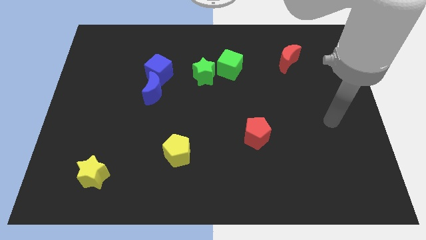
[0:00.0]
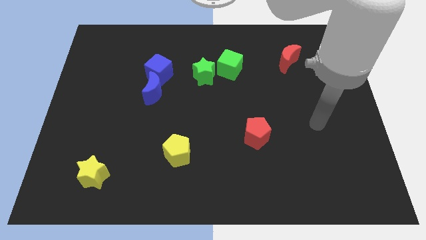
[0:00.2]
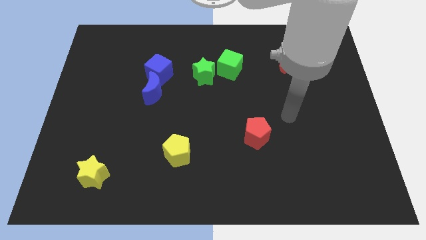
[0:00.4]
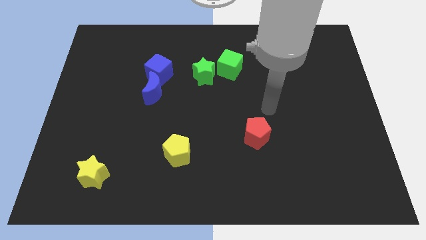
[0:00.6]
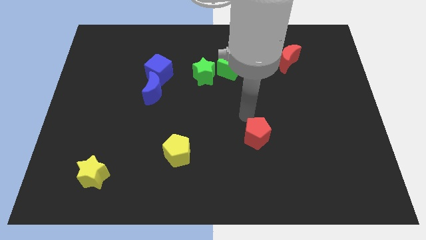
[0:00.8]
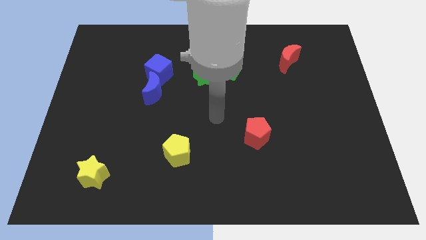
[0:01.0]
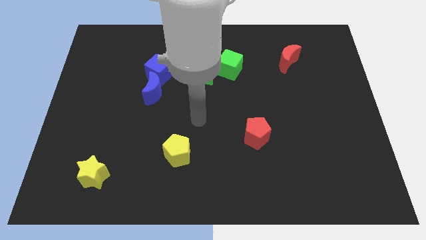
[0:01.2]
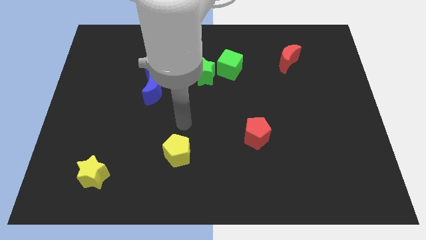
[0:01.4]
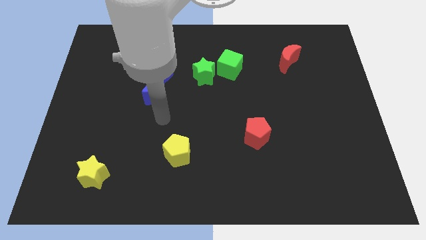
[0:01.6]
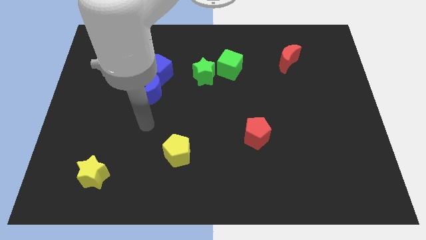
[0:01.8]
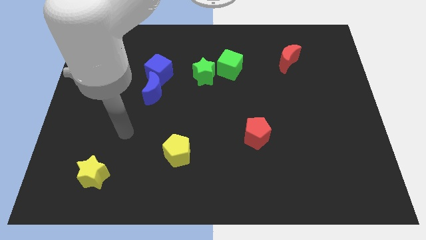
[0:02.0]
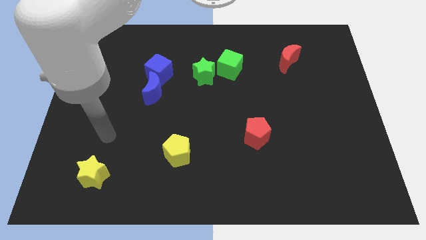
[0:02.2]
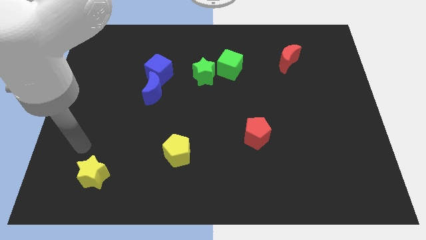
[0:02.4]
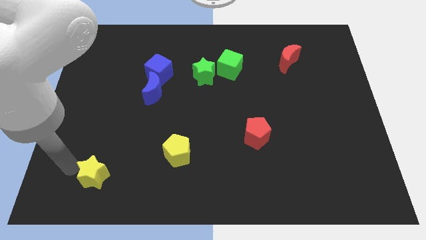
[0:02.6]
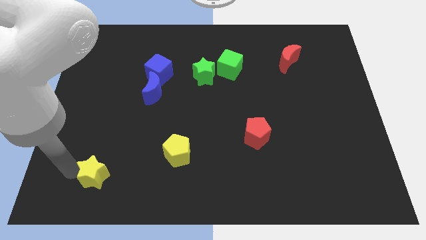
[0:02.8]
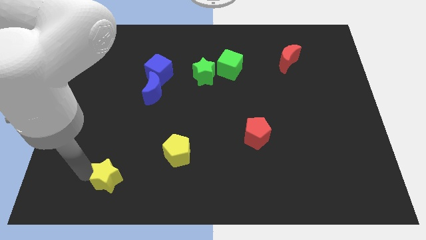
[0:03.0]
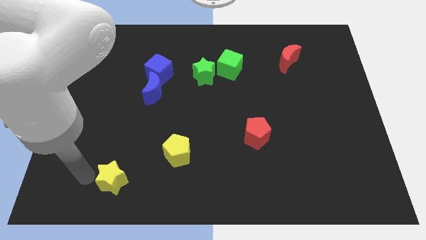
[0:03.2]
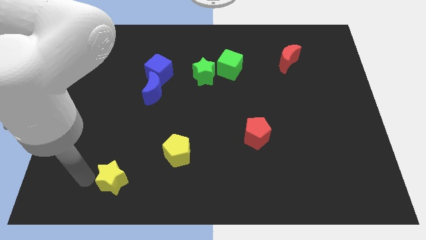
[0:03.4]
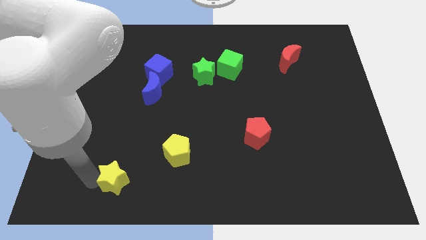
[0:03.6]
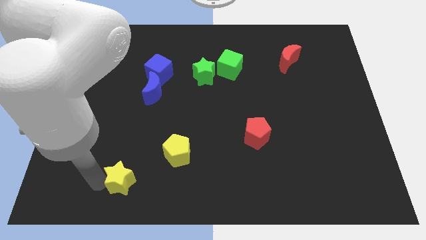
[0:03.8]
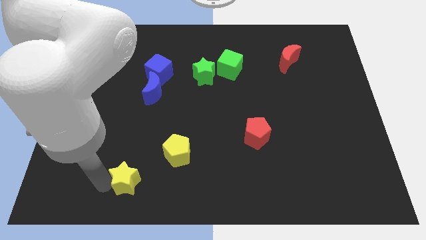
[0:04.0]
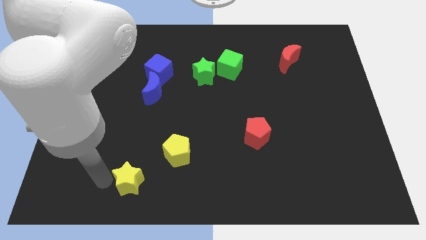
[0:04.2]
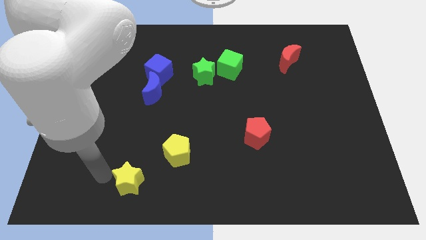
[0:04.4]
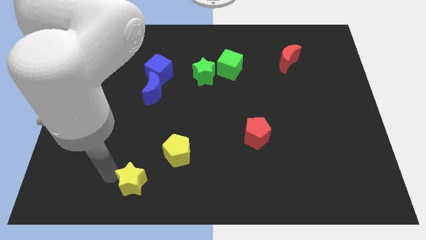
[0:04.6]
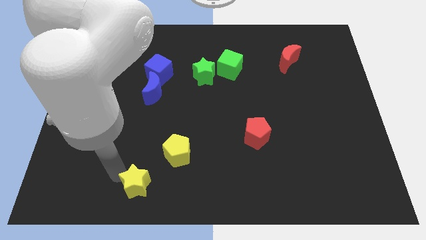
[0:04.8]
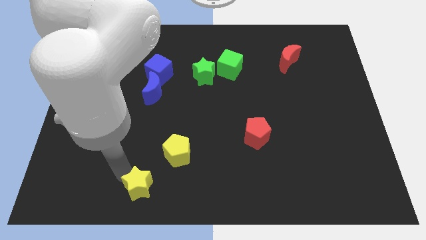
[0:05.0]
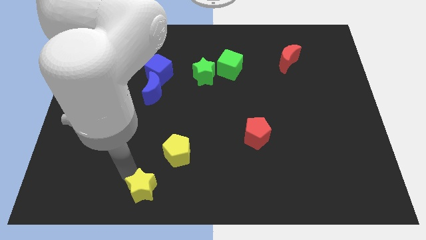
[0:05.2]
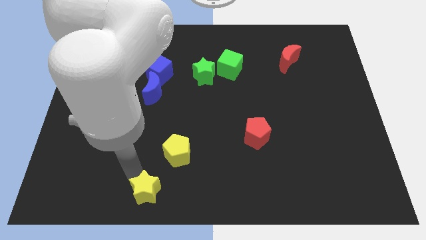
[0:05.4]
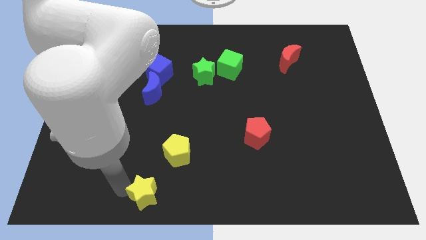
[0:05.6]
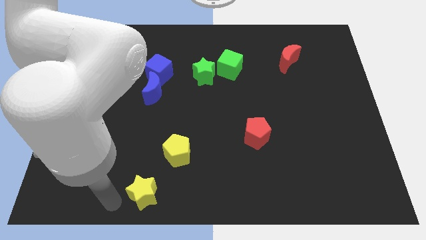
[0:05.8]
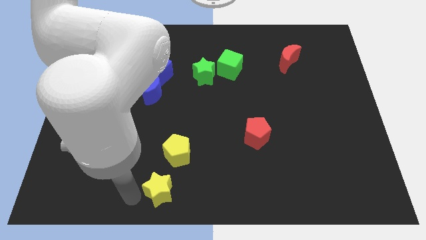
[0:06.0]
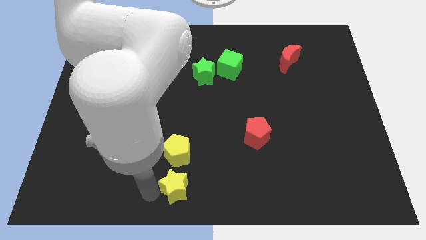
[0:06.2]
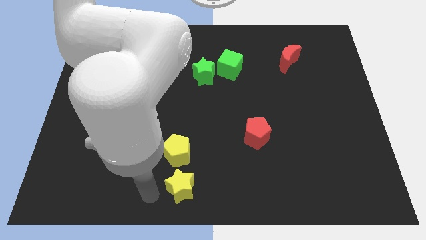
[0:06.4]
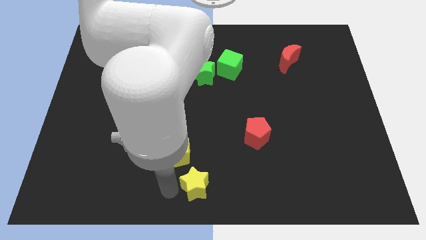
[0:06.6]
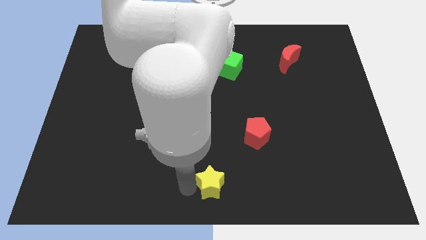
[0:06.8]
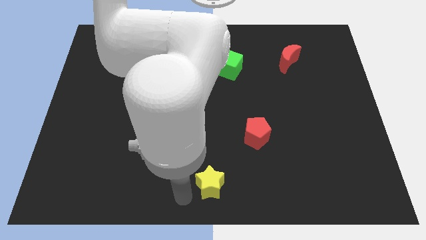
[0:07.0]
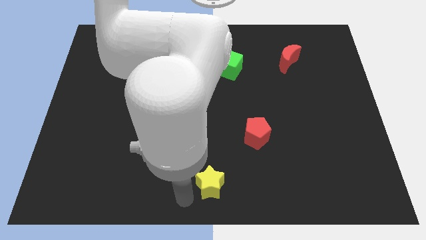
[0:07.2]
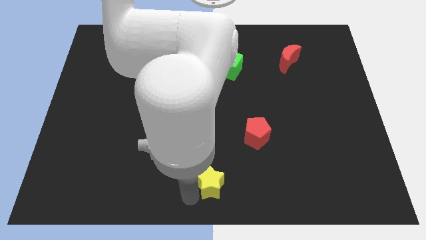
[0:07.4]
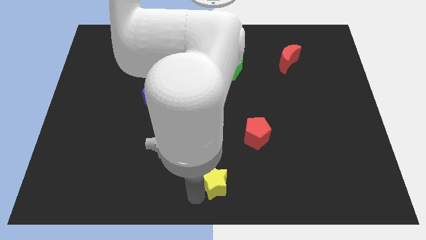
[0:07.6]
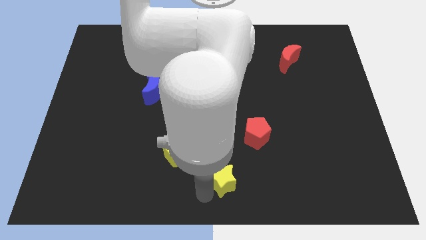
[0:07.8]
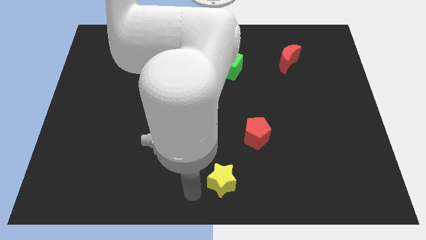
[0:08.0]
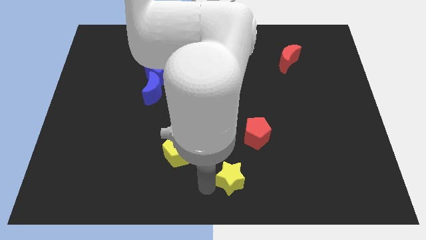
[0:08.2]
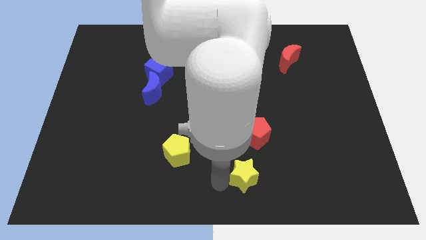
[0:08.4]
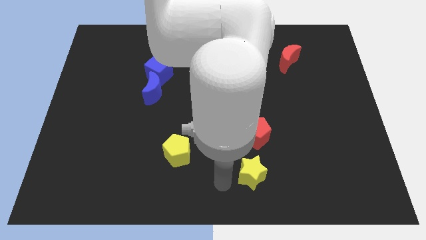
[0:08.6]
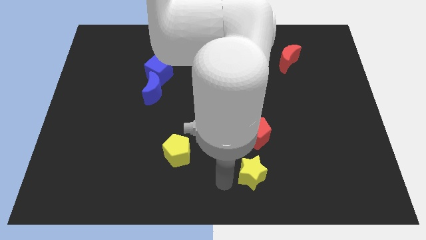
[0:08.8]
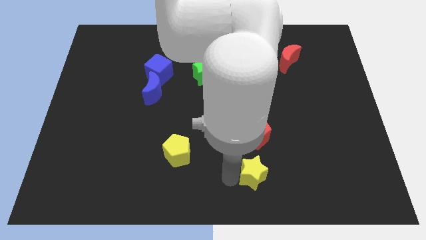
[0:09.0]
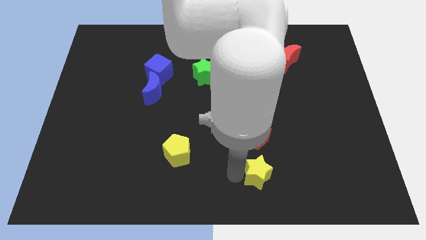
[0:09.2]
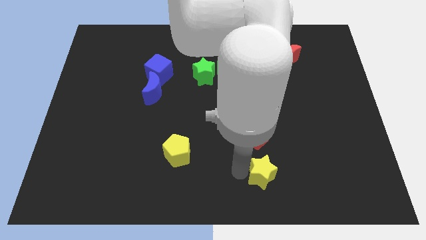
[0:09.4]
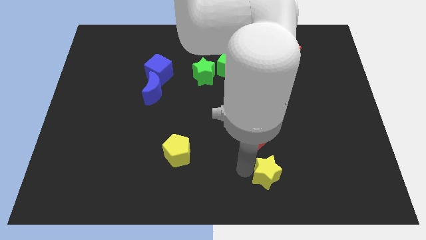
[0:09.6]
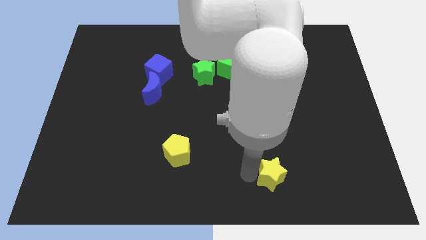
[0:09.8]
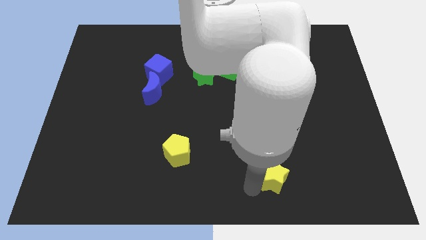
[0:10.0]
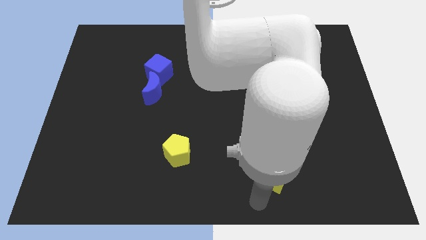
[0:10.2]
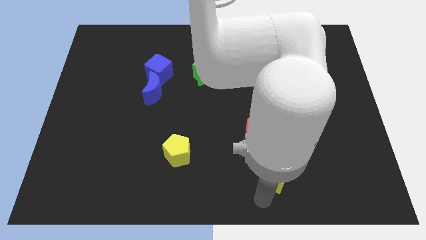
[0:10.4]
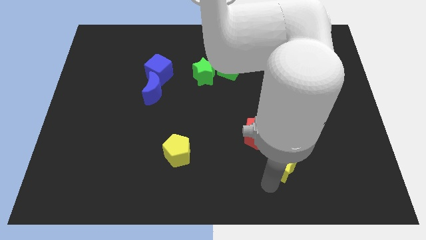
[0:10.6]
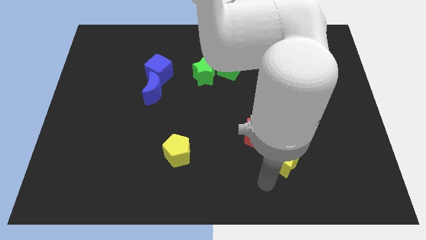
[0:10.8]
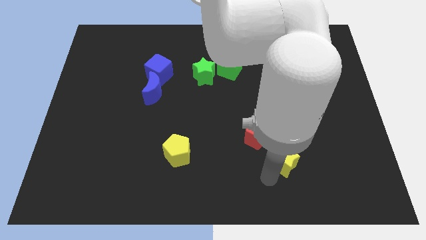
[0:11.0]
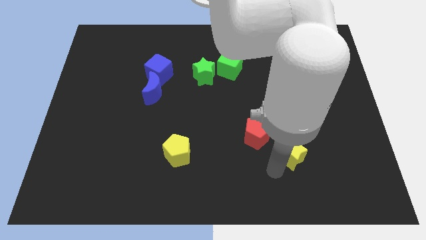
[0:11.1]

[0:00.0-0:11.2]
push the yellow star to the right of the red pentagon

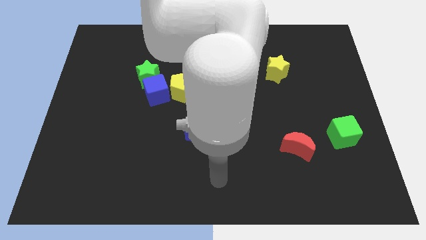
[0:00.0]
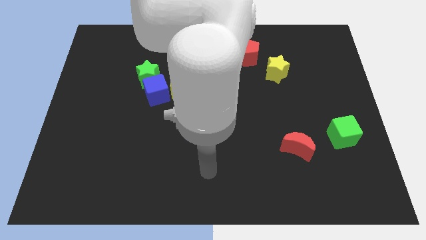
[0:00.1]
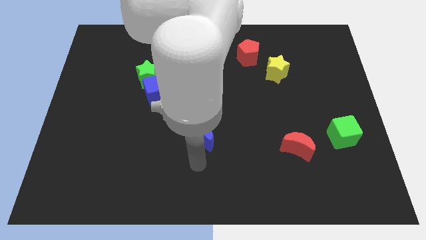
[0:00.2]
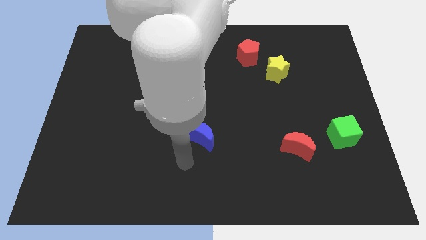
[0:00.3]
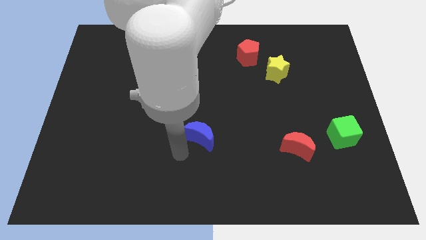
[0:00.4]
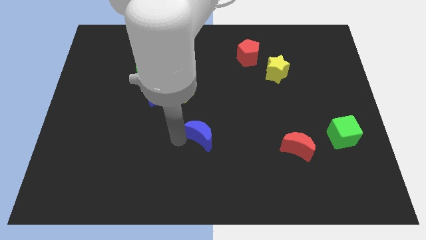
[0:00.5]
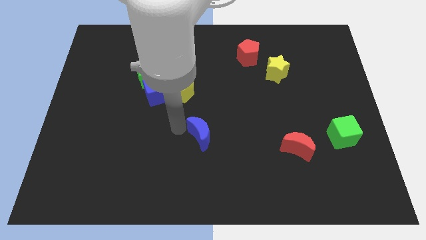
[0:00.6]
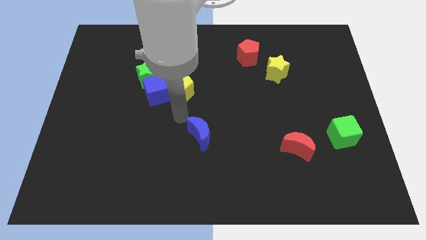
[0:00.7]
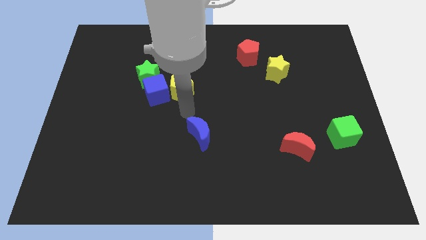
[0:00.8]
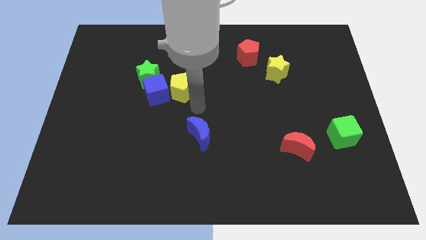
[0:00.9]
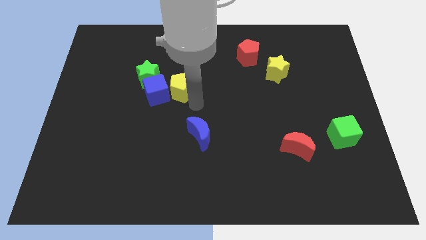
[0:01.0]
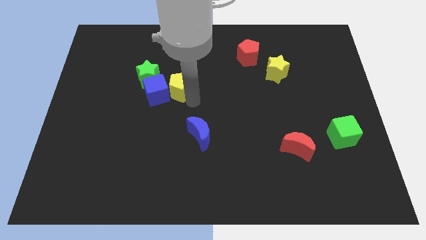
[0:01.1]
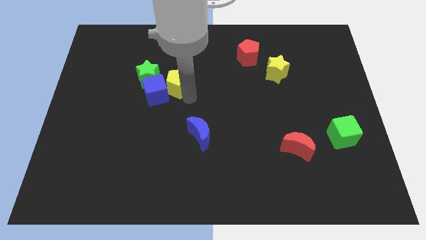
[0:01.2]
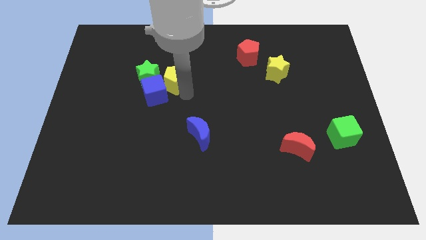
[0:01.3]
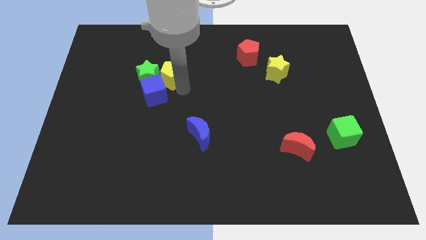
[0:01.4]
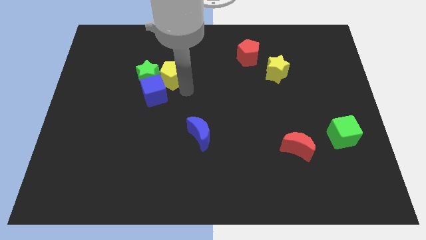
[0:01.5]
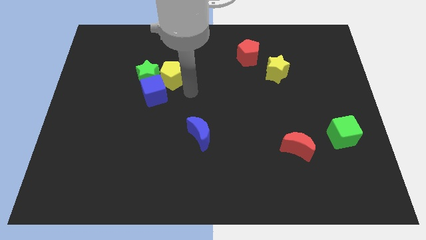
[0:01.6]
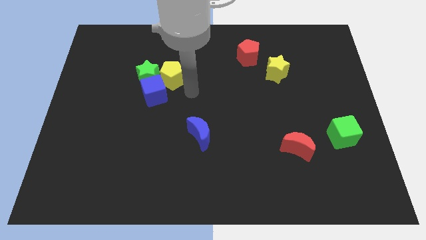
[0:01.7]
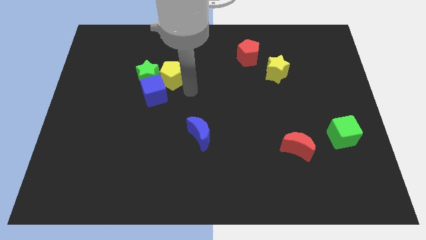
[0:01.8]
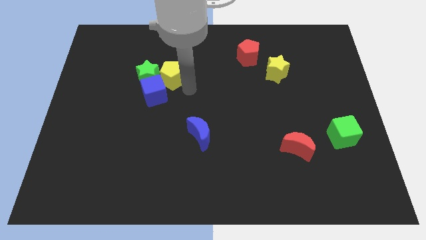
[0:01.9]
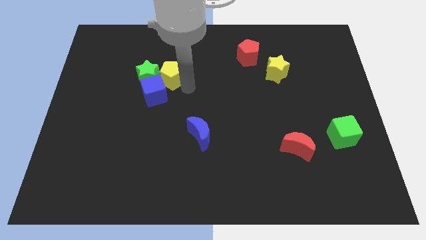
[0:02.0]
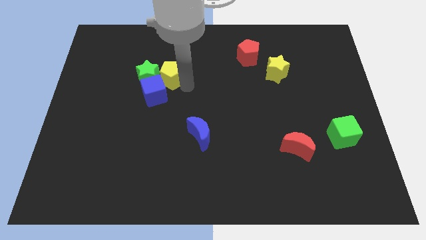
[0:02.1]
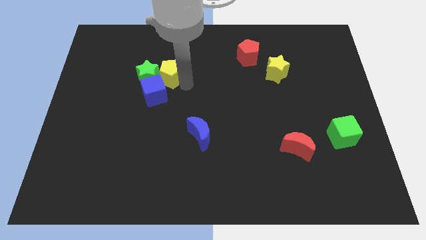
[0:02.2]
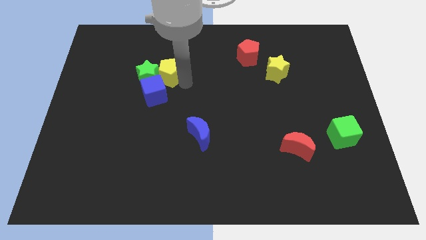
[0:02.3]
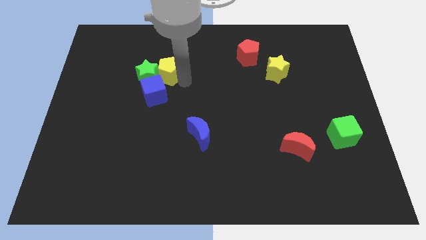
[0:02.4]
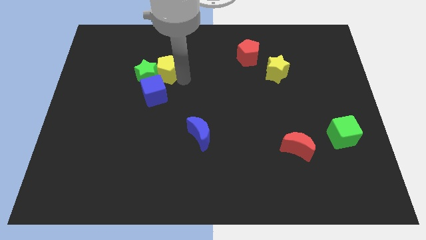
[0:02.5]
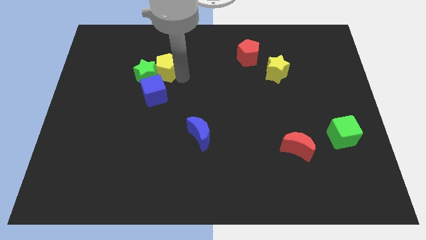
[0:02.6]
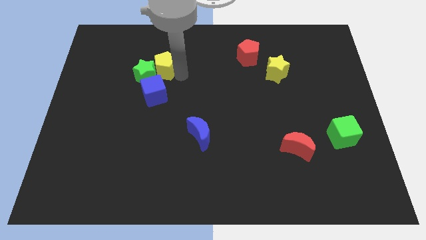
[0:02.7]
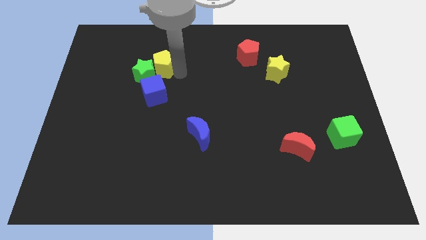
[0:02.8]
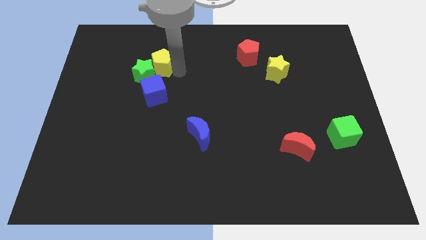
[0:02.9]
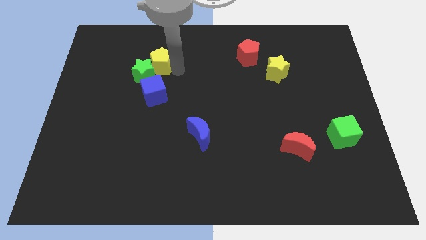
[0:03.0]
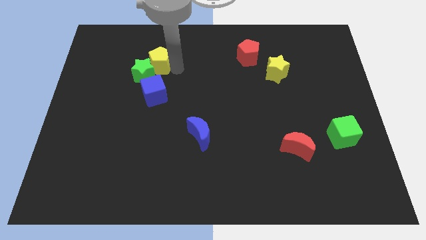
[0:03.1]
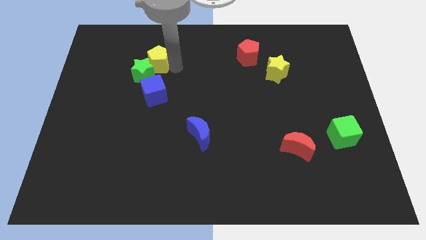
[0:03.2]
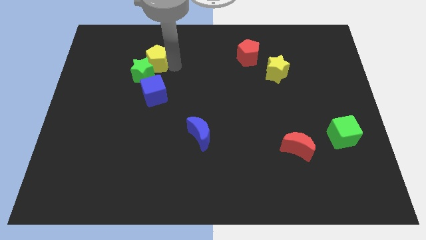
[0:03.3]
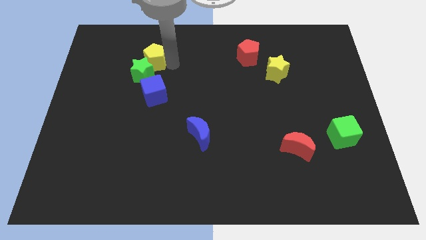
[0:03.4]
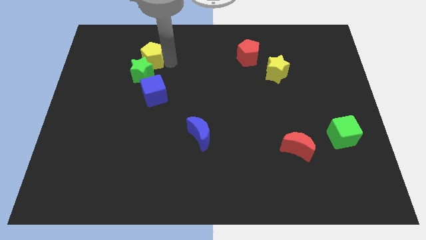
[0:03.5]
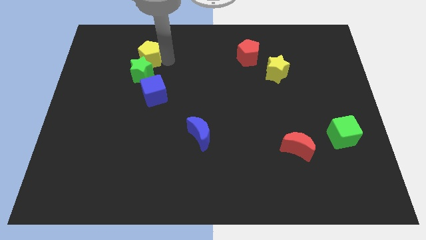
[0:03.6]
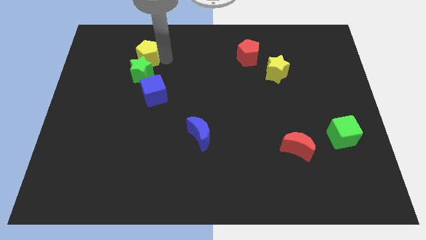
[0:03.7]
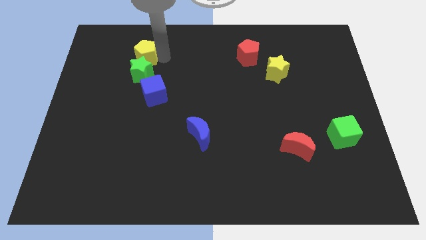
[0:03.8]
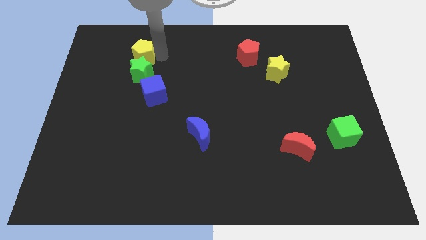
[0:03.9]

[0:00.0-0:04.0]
put the yellow pentagon diagonally up and to the left of the green star
